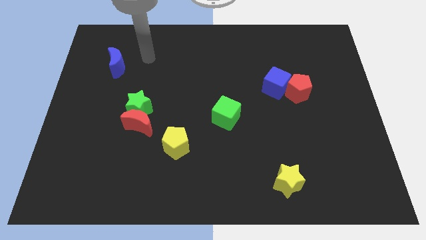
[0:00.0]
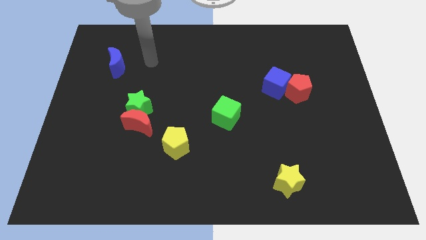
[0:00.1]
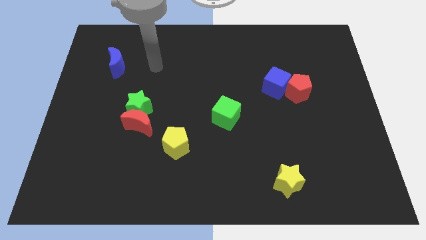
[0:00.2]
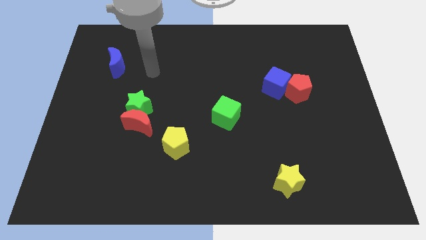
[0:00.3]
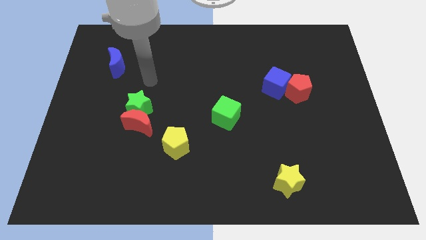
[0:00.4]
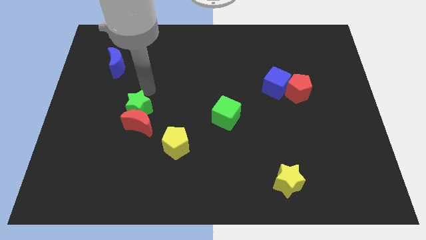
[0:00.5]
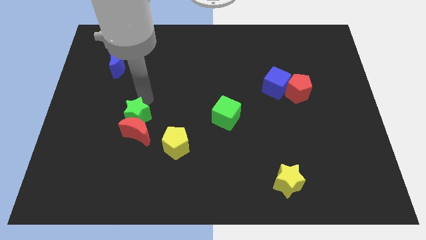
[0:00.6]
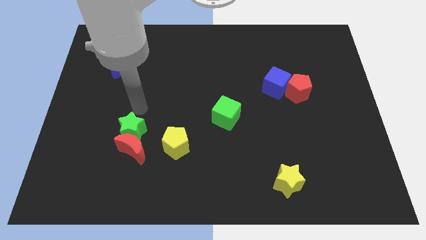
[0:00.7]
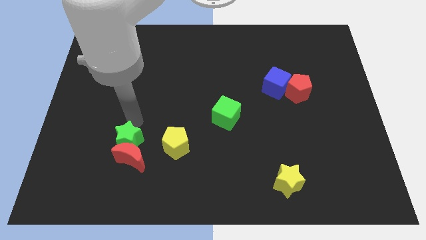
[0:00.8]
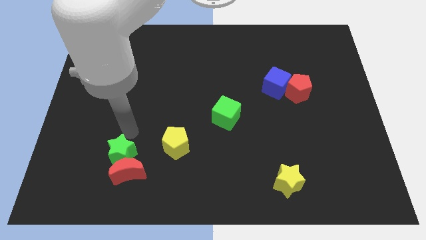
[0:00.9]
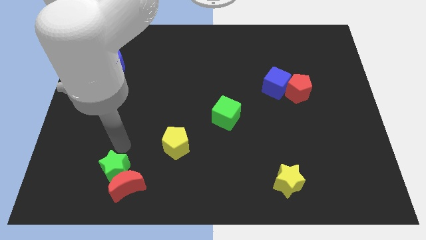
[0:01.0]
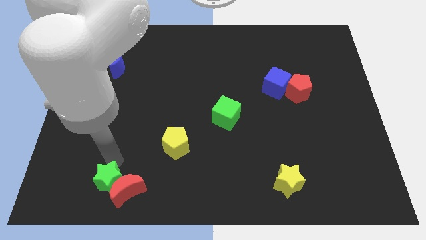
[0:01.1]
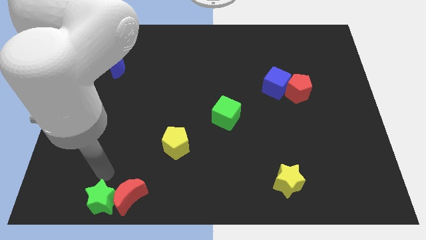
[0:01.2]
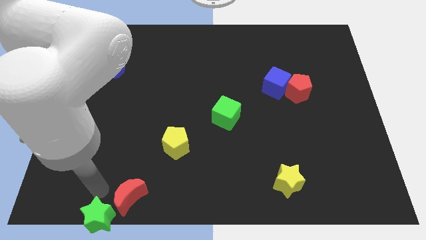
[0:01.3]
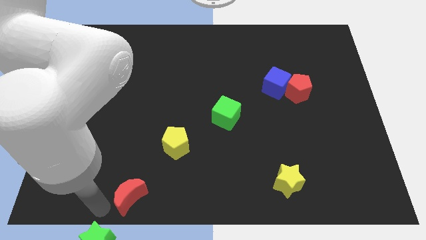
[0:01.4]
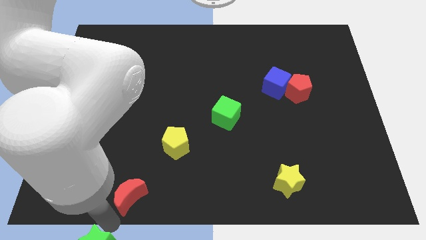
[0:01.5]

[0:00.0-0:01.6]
move the red moon away from the green star

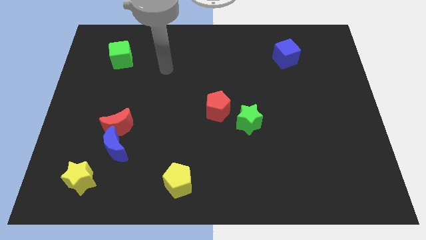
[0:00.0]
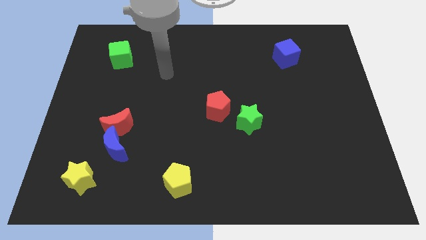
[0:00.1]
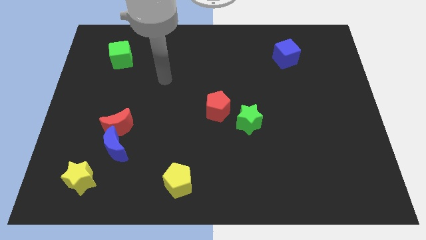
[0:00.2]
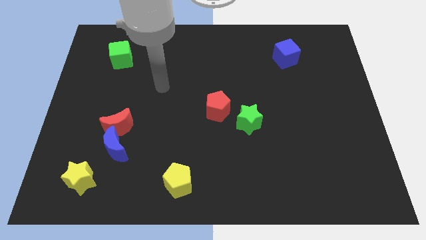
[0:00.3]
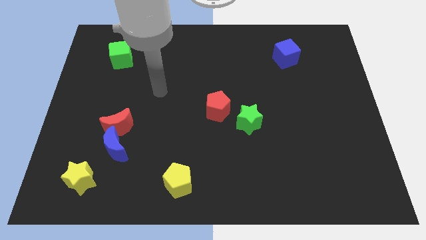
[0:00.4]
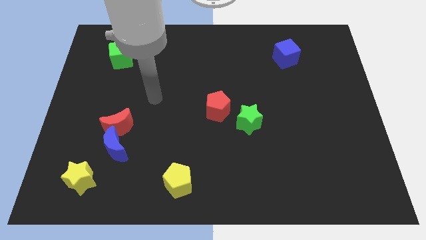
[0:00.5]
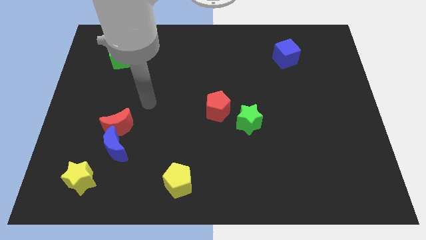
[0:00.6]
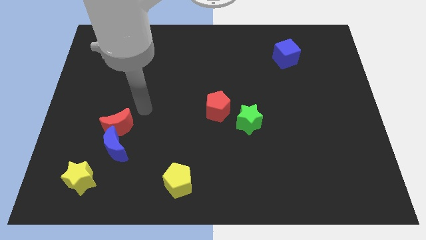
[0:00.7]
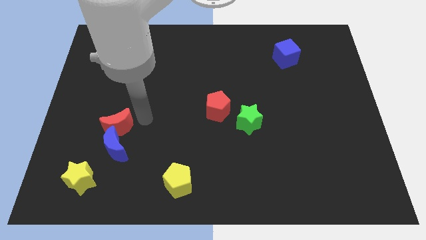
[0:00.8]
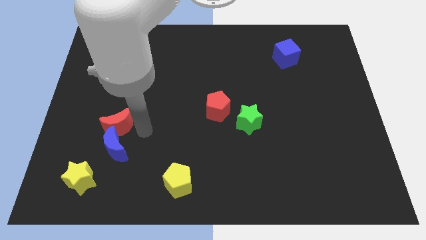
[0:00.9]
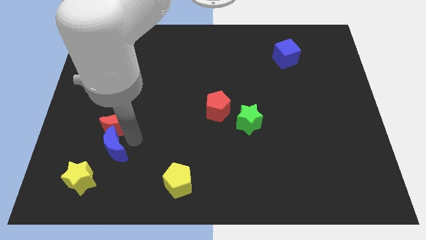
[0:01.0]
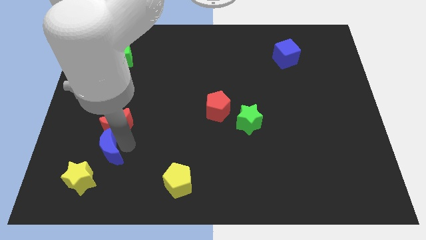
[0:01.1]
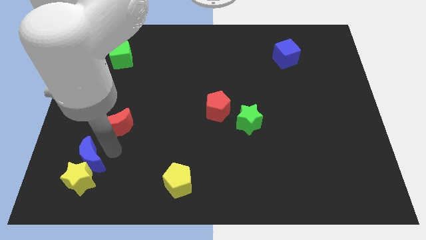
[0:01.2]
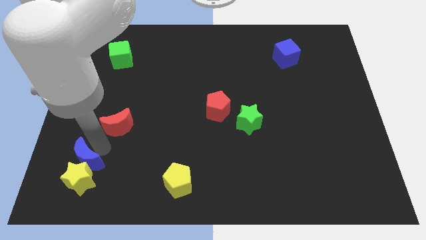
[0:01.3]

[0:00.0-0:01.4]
pull the red moon apart from the blue moon

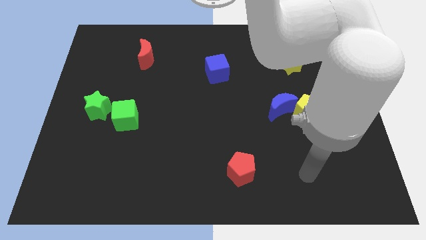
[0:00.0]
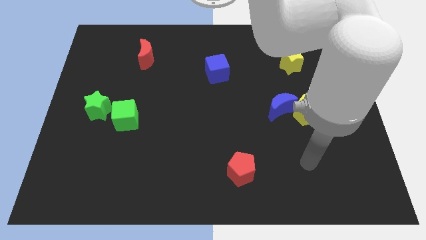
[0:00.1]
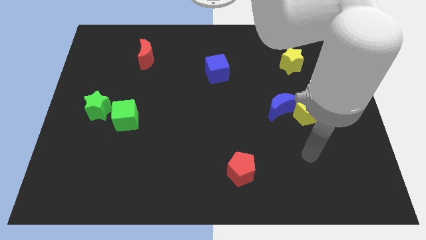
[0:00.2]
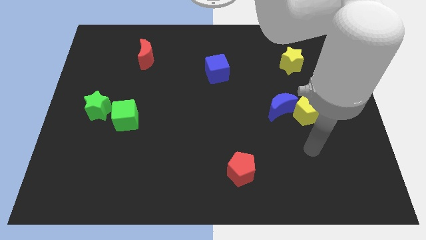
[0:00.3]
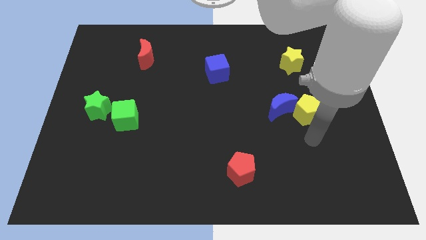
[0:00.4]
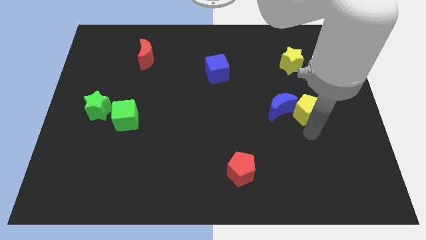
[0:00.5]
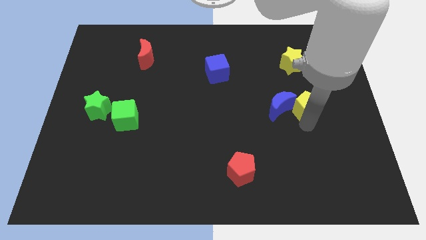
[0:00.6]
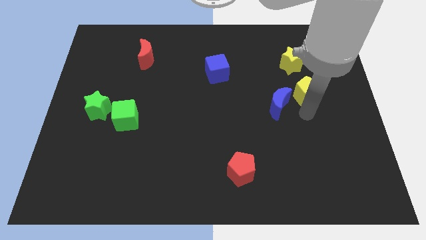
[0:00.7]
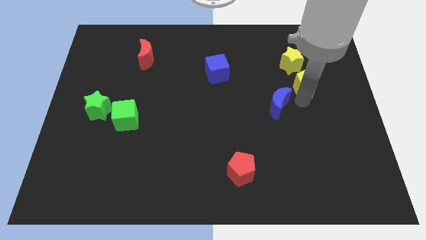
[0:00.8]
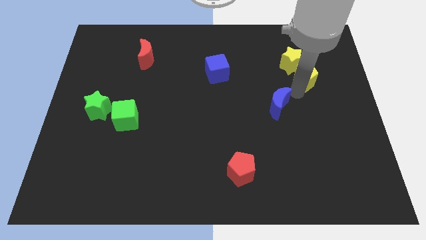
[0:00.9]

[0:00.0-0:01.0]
move the blue moon away from the yellow pentagon

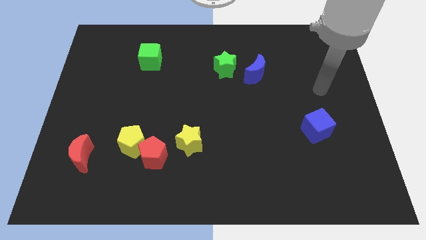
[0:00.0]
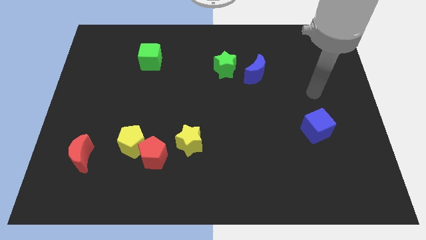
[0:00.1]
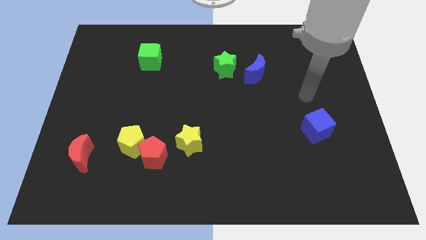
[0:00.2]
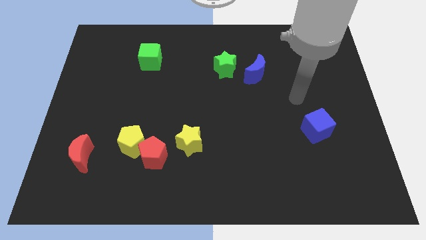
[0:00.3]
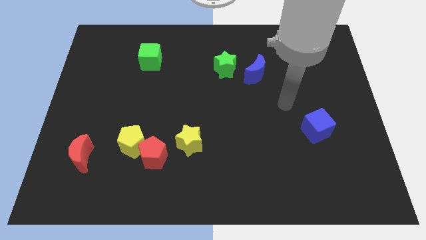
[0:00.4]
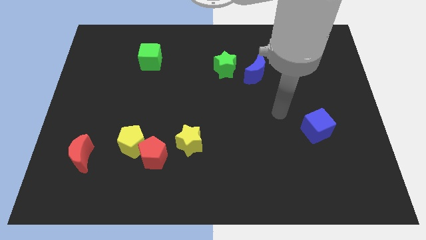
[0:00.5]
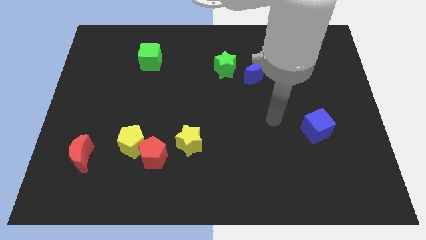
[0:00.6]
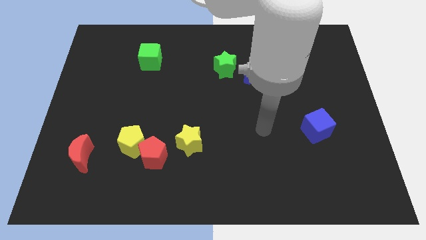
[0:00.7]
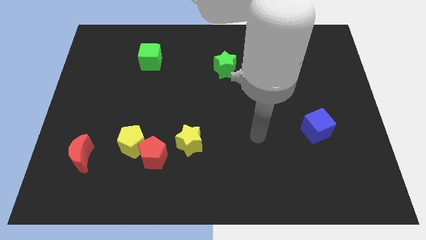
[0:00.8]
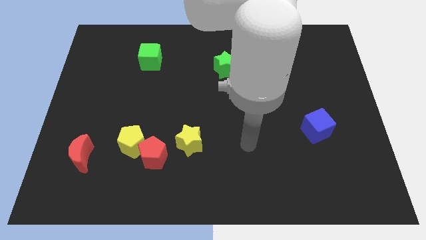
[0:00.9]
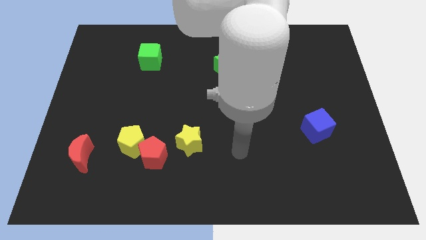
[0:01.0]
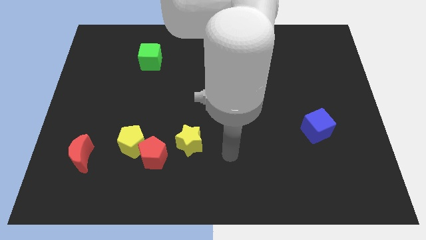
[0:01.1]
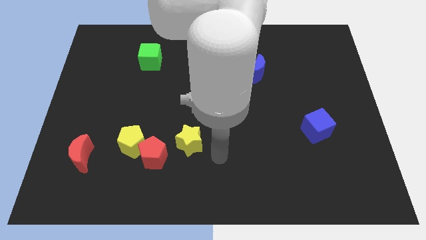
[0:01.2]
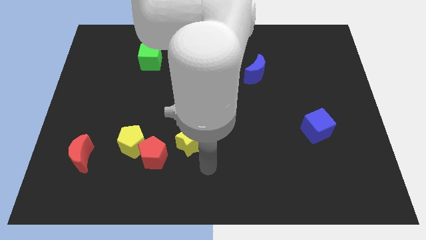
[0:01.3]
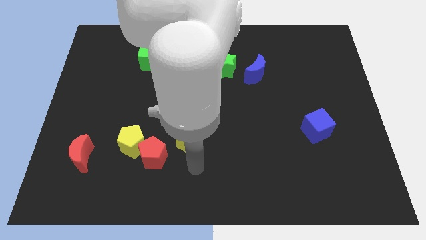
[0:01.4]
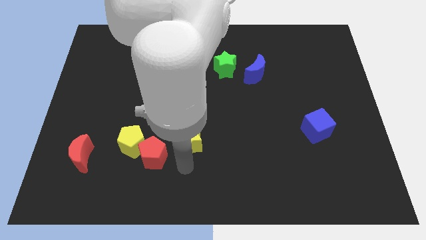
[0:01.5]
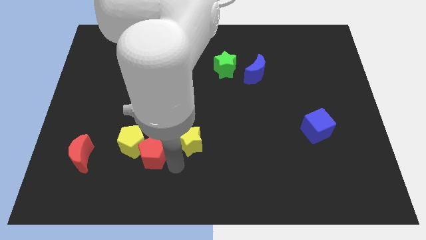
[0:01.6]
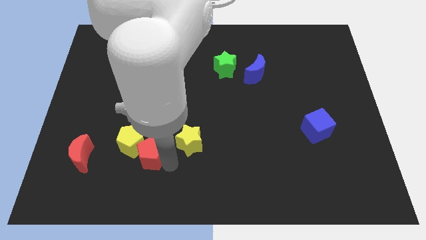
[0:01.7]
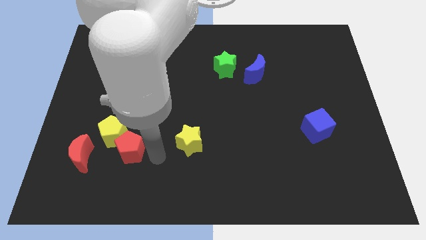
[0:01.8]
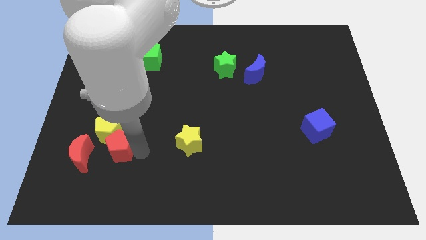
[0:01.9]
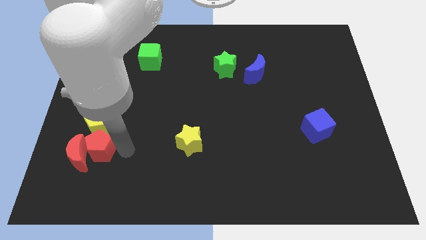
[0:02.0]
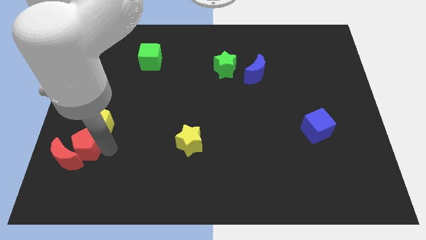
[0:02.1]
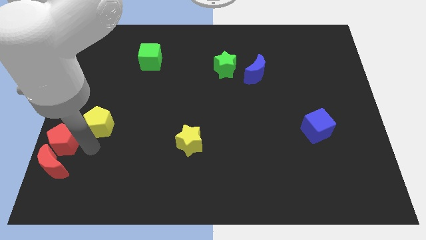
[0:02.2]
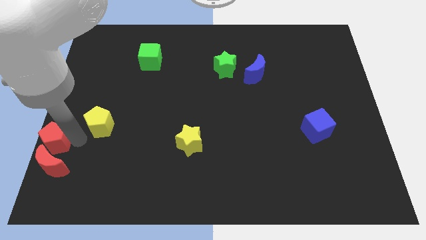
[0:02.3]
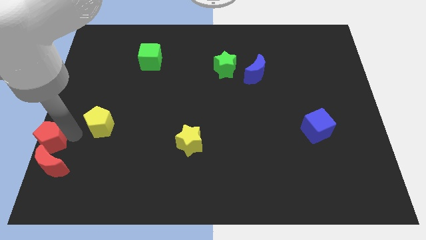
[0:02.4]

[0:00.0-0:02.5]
move the yellow pentagon away from the red pentagon

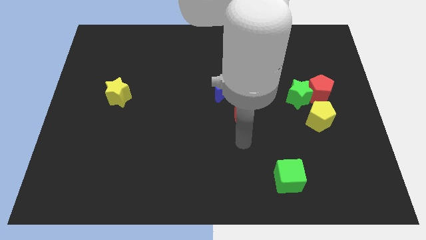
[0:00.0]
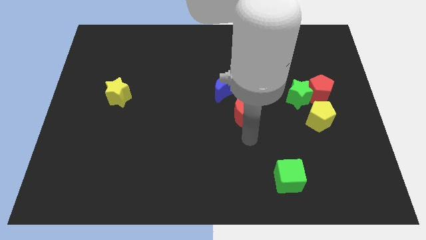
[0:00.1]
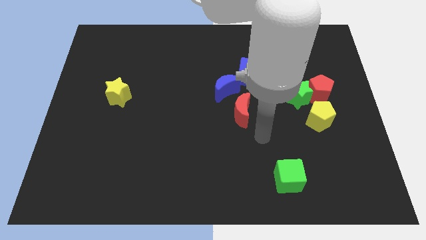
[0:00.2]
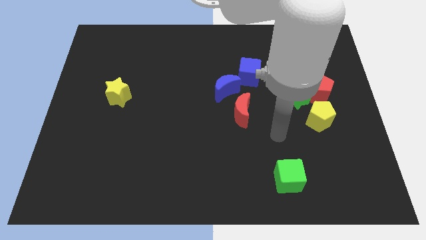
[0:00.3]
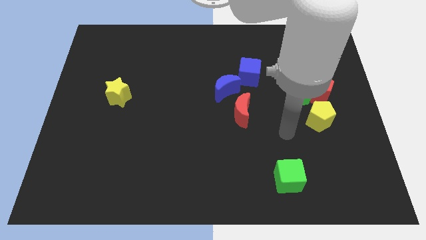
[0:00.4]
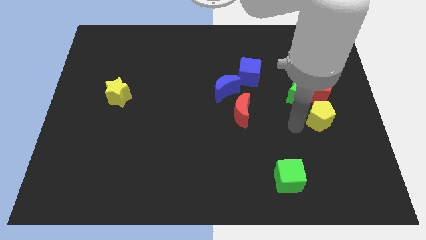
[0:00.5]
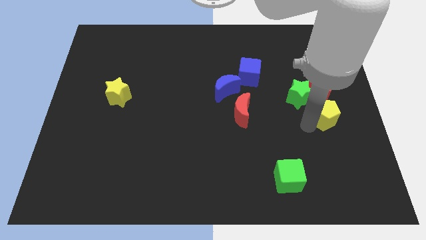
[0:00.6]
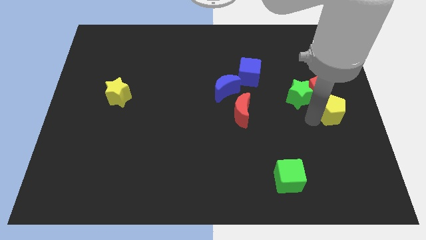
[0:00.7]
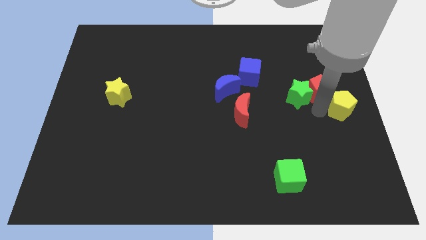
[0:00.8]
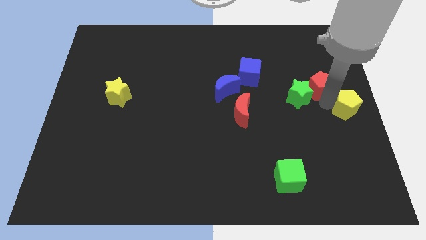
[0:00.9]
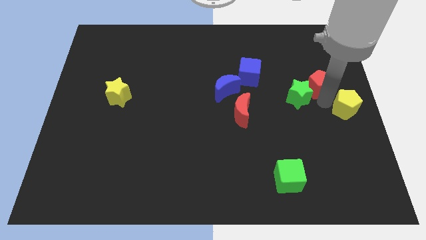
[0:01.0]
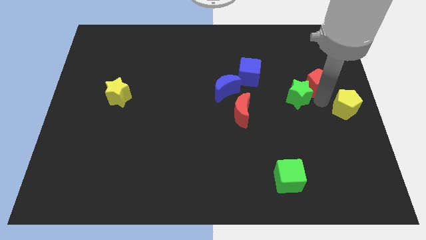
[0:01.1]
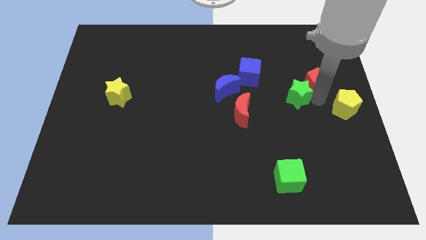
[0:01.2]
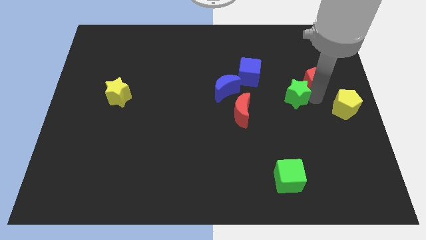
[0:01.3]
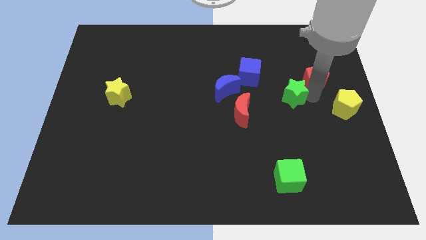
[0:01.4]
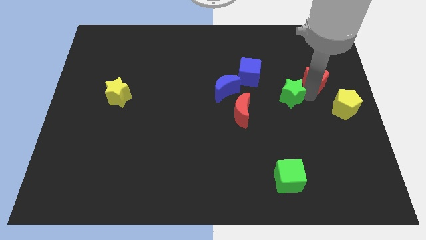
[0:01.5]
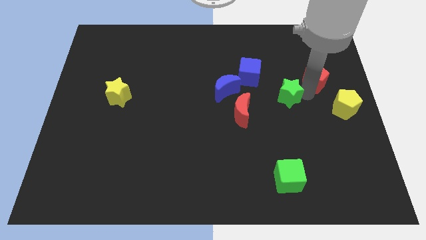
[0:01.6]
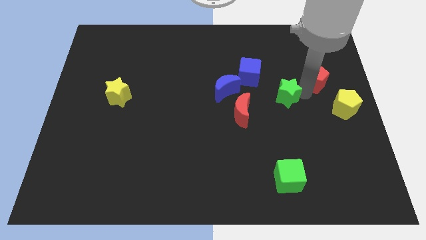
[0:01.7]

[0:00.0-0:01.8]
move the green star away from the red pentagon and yellow pentagon

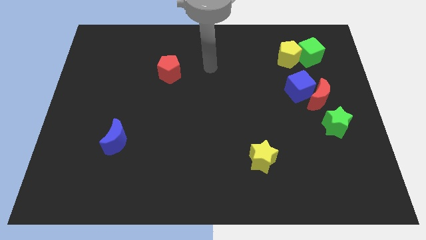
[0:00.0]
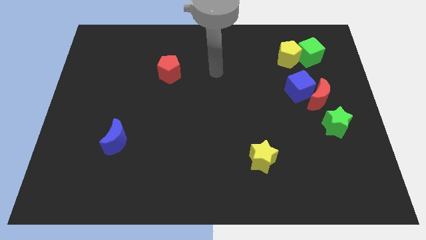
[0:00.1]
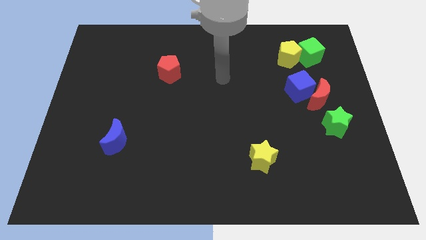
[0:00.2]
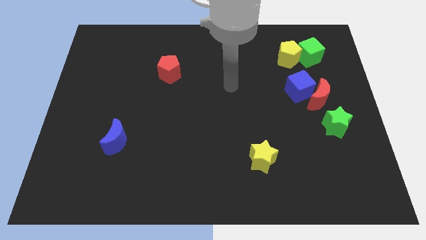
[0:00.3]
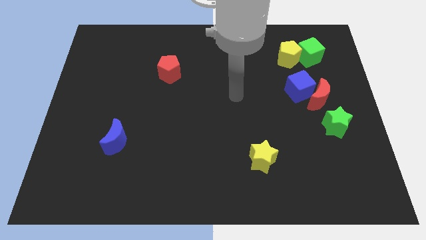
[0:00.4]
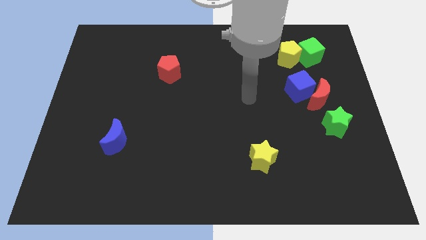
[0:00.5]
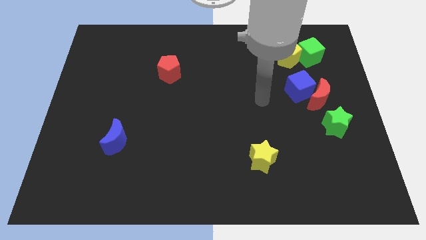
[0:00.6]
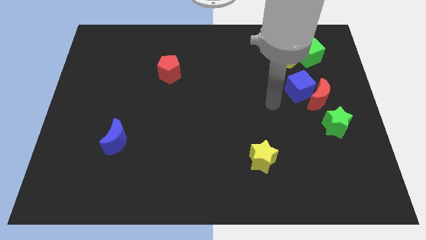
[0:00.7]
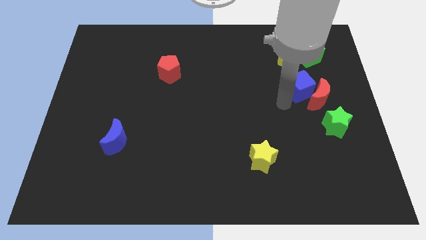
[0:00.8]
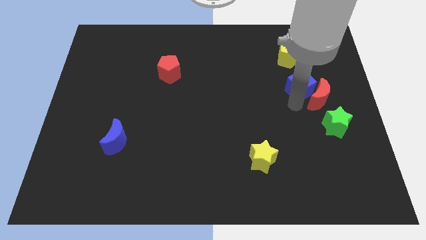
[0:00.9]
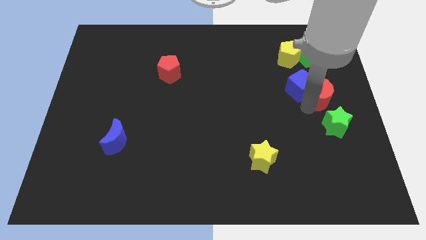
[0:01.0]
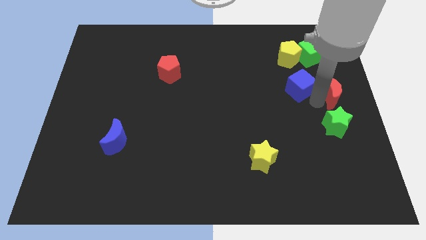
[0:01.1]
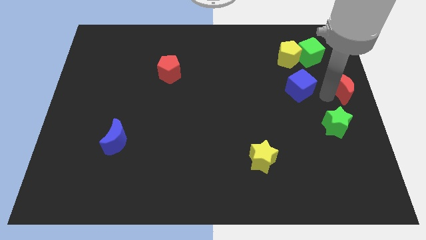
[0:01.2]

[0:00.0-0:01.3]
separate the blue cube from the red moon
